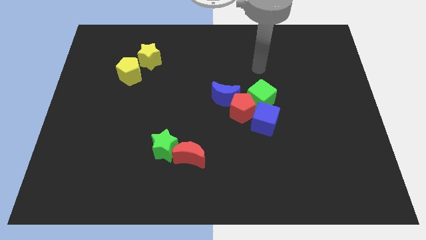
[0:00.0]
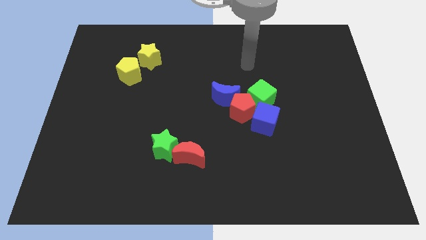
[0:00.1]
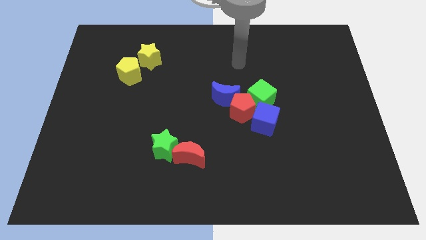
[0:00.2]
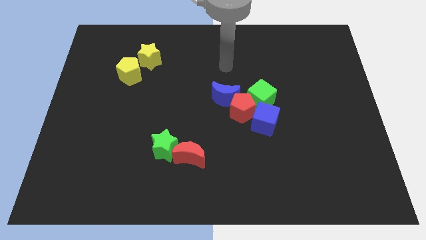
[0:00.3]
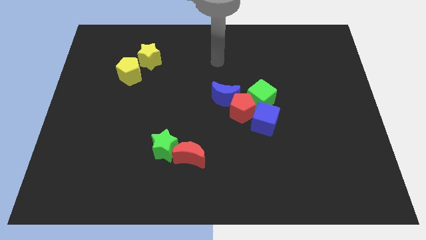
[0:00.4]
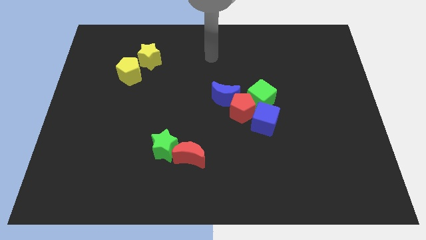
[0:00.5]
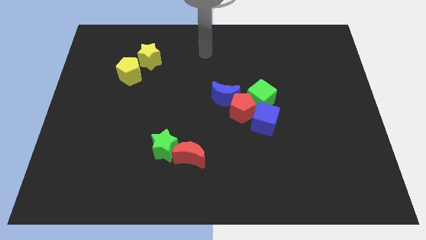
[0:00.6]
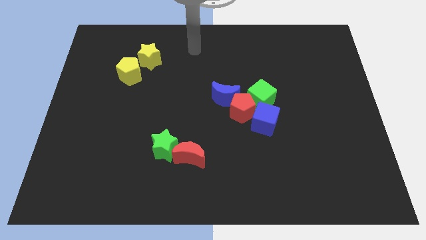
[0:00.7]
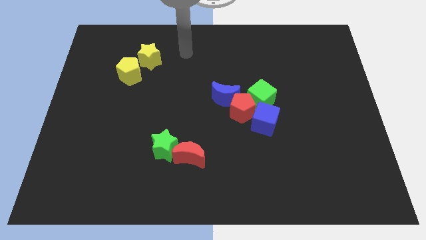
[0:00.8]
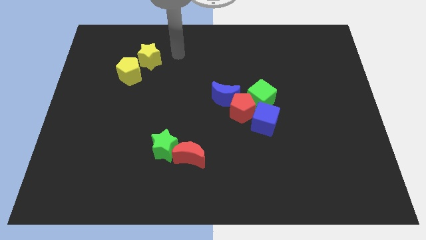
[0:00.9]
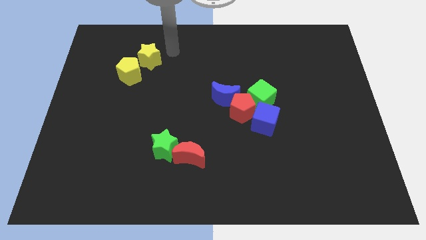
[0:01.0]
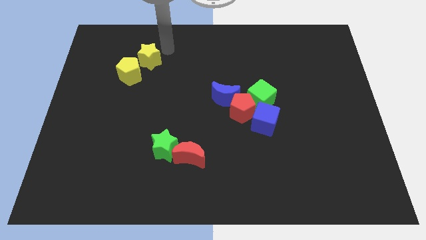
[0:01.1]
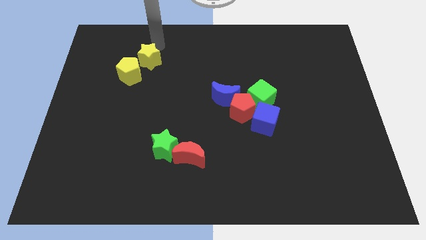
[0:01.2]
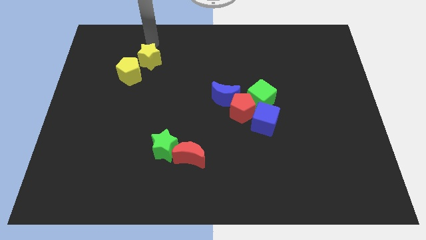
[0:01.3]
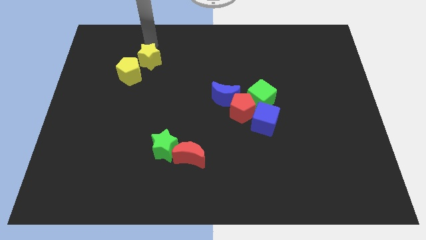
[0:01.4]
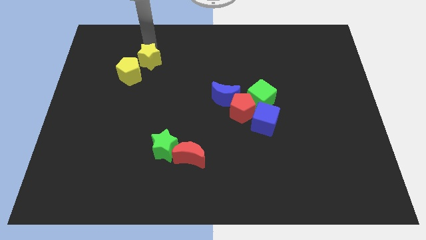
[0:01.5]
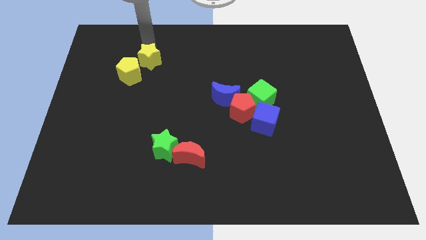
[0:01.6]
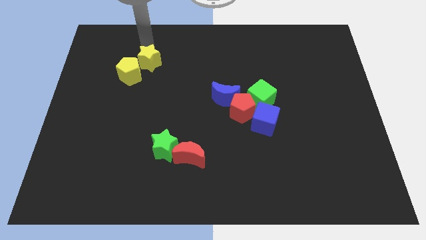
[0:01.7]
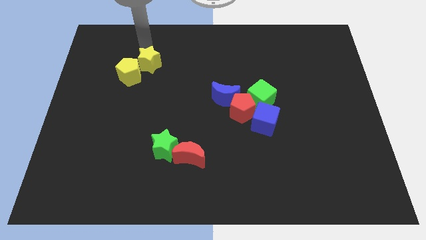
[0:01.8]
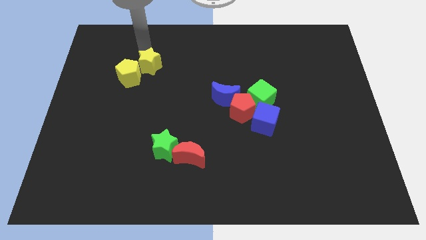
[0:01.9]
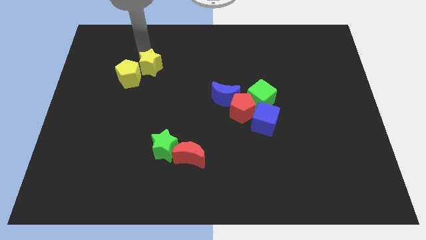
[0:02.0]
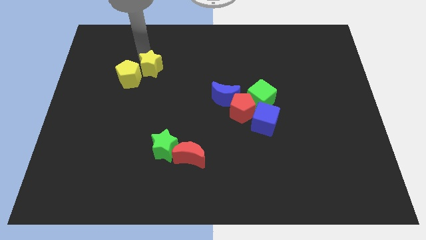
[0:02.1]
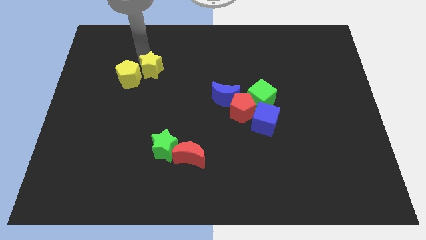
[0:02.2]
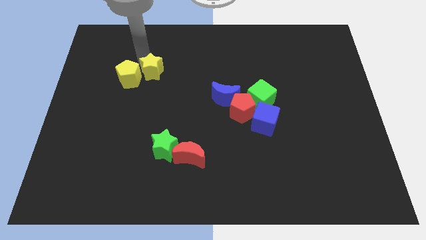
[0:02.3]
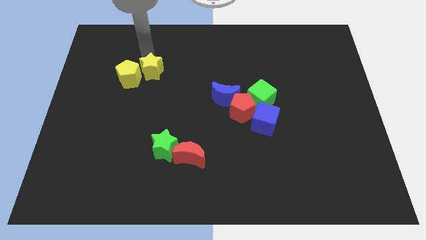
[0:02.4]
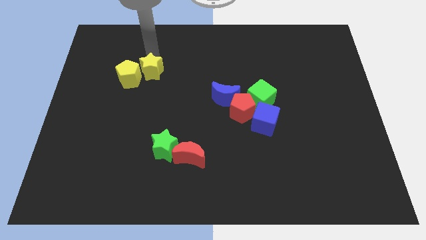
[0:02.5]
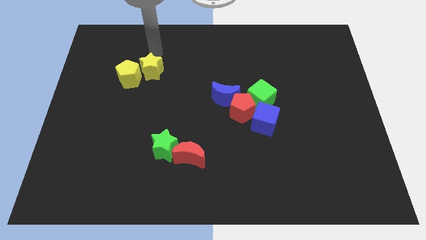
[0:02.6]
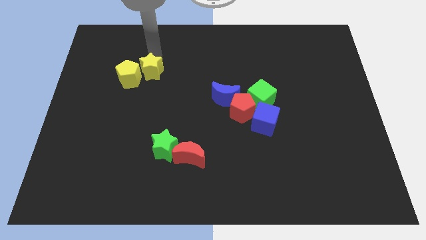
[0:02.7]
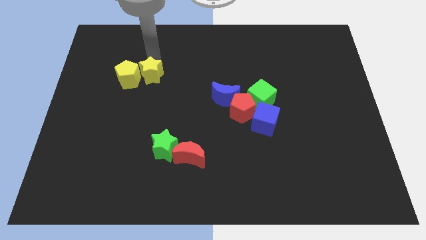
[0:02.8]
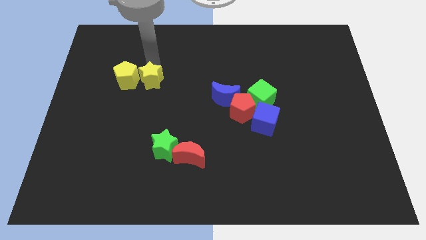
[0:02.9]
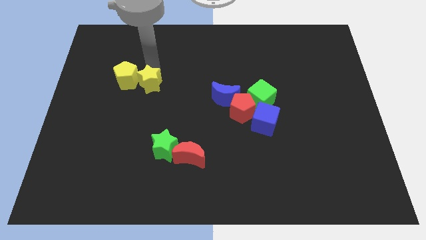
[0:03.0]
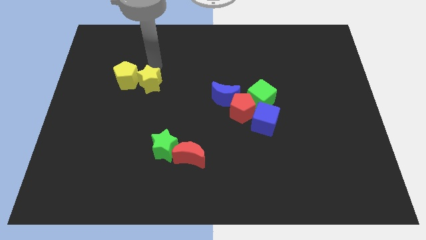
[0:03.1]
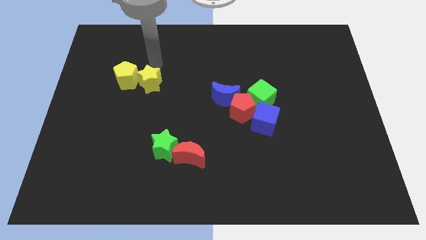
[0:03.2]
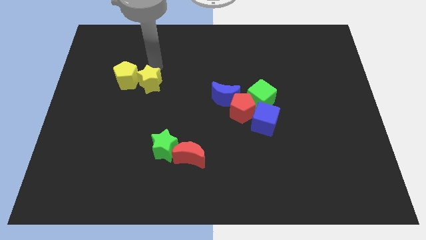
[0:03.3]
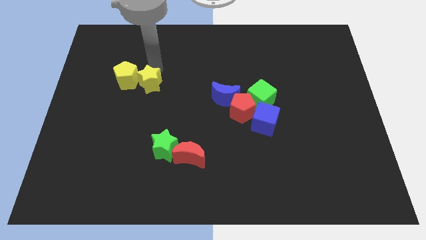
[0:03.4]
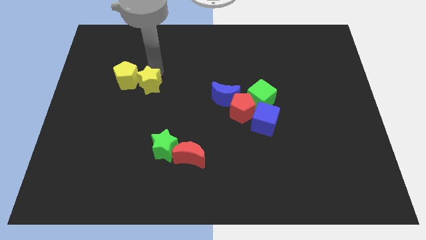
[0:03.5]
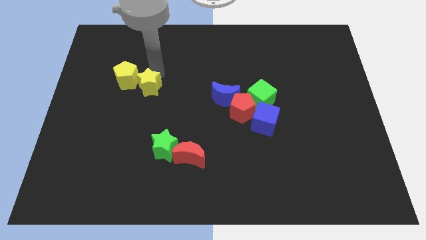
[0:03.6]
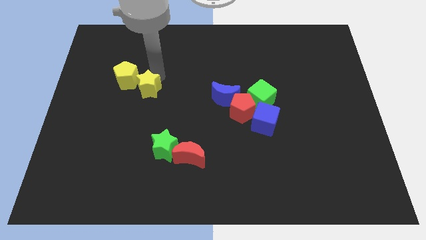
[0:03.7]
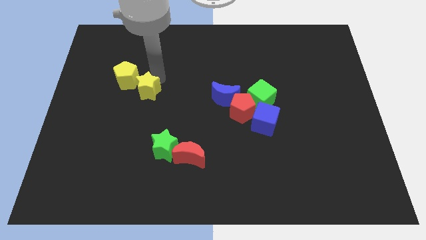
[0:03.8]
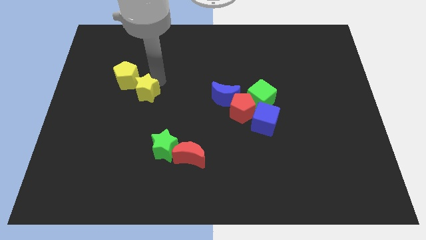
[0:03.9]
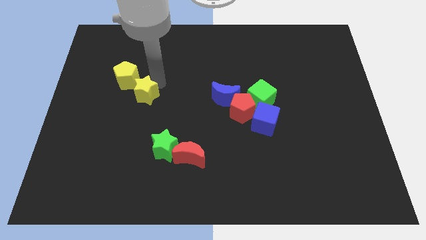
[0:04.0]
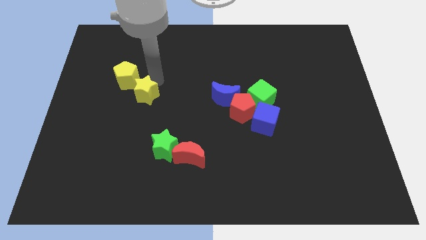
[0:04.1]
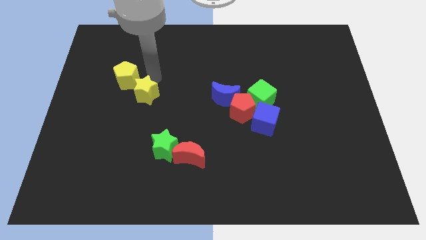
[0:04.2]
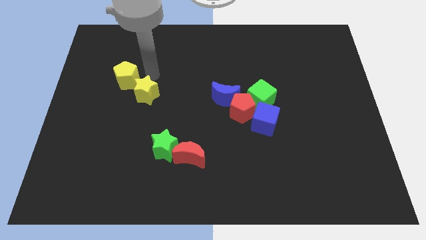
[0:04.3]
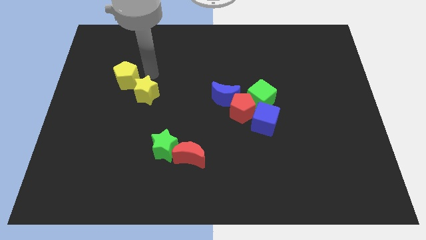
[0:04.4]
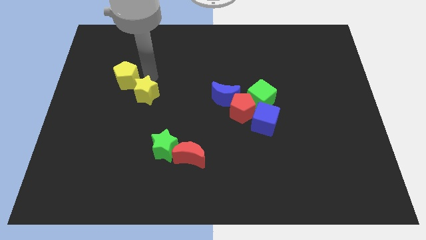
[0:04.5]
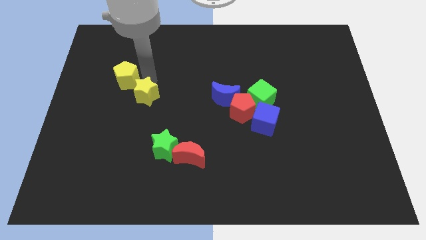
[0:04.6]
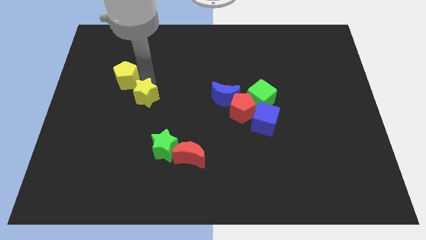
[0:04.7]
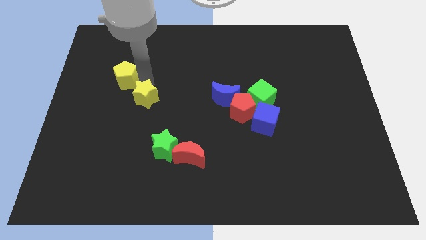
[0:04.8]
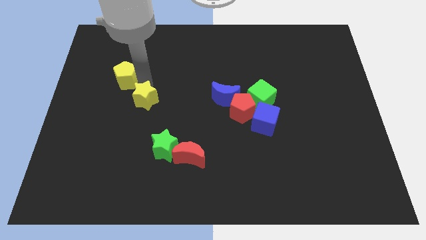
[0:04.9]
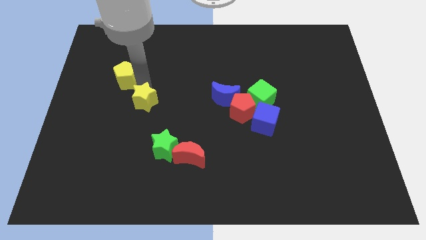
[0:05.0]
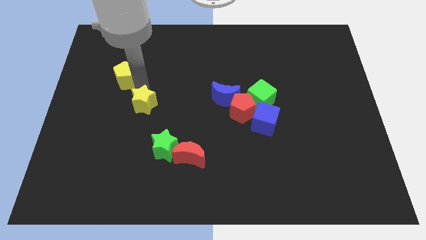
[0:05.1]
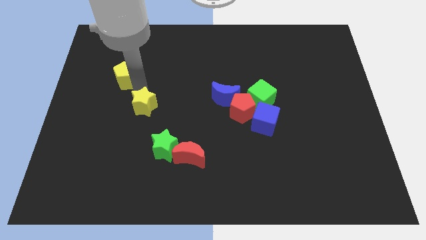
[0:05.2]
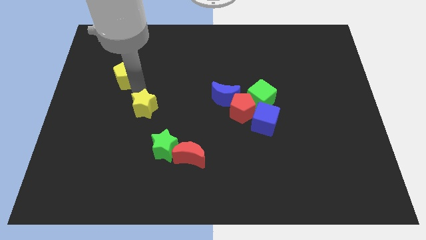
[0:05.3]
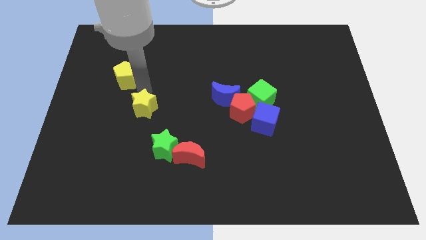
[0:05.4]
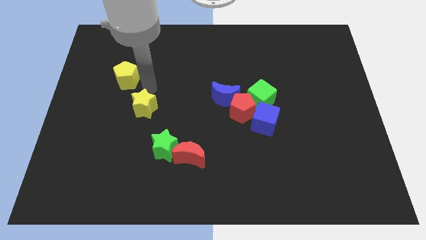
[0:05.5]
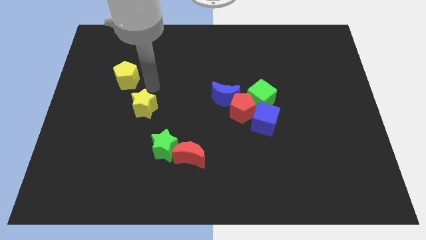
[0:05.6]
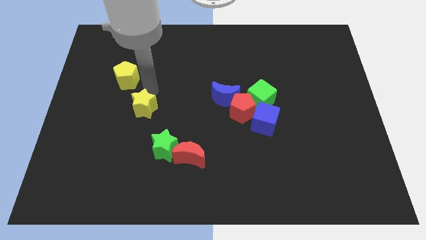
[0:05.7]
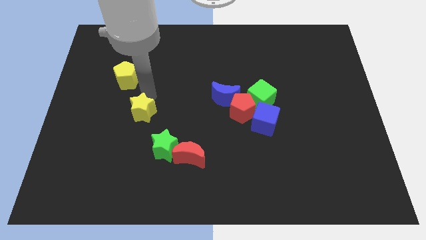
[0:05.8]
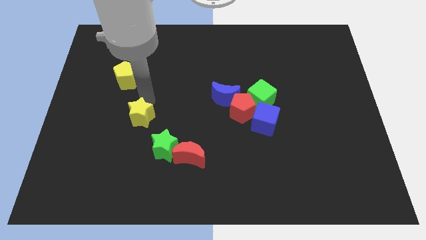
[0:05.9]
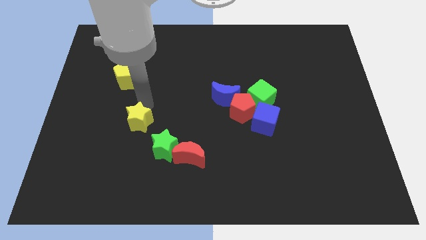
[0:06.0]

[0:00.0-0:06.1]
slide the yellow star down

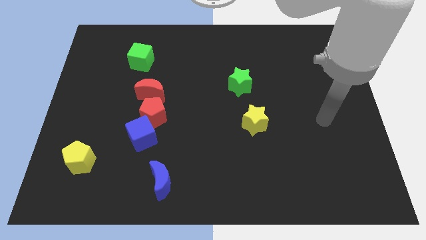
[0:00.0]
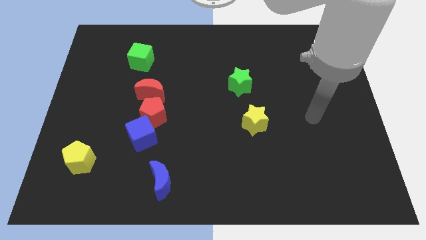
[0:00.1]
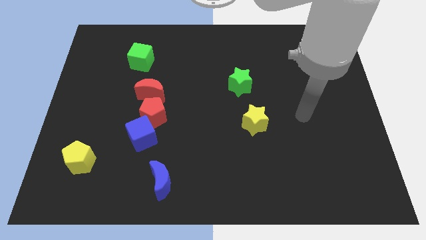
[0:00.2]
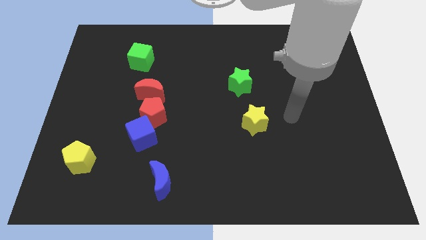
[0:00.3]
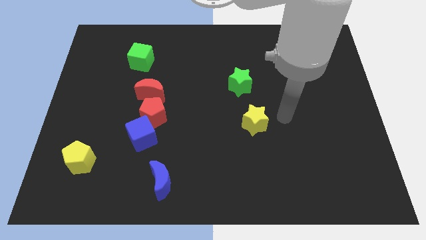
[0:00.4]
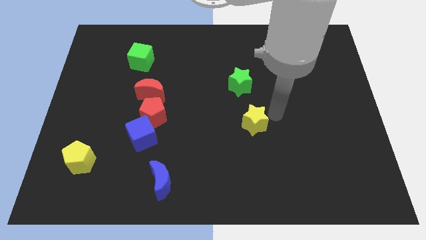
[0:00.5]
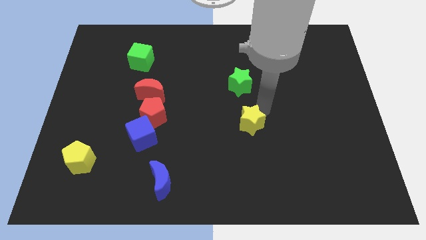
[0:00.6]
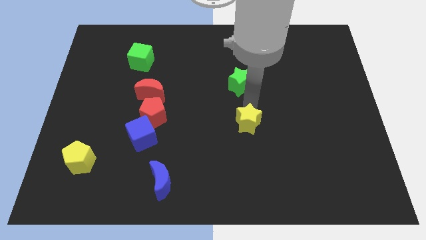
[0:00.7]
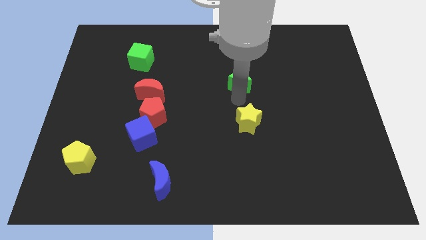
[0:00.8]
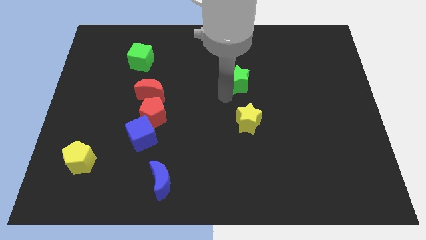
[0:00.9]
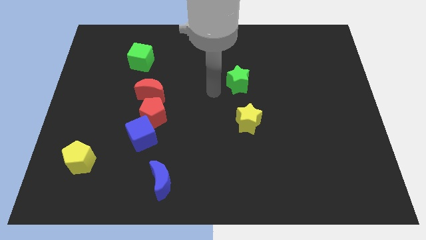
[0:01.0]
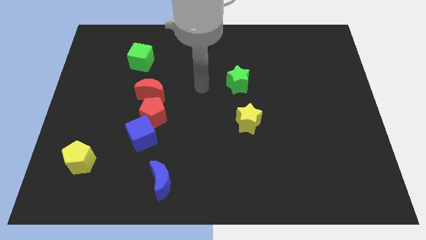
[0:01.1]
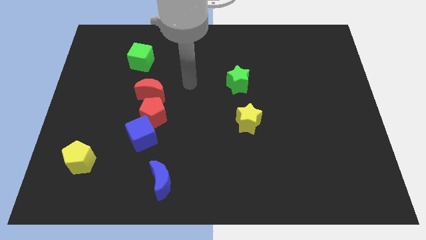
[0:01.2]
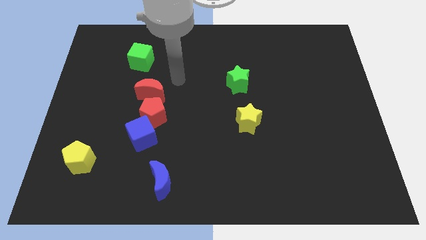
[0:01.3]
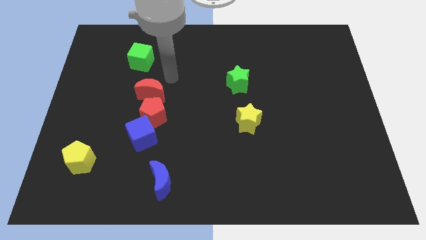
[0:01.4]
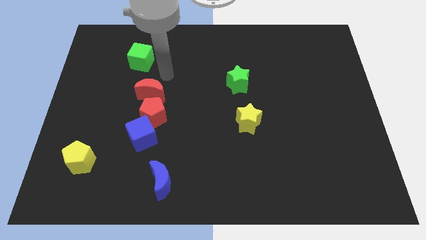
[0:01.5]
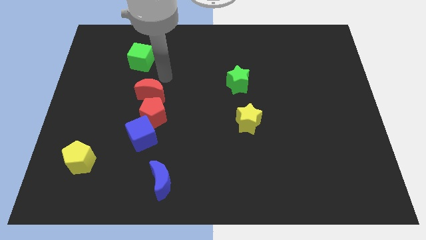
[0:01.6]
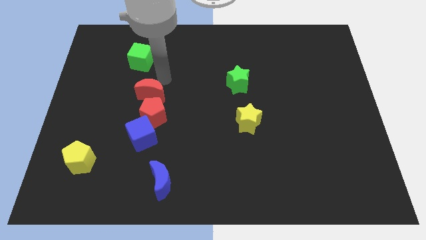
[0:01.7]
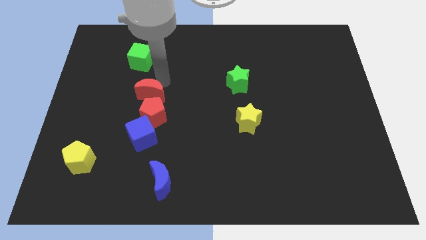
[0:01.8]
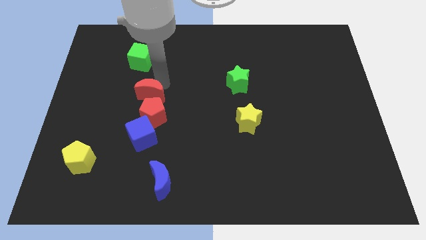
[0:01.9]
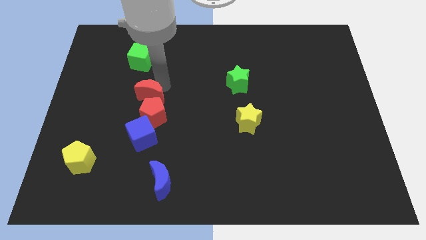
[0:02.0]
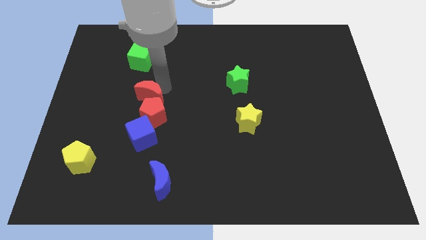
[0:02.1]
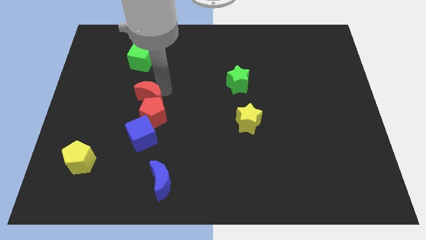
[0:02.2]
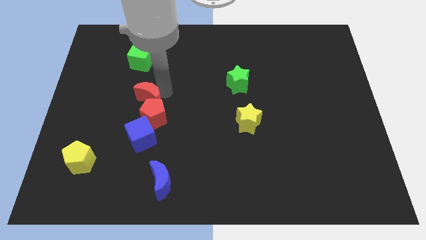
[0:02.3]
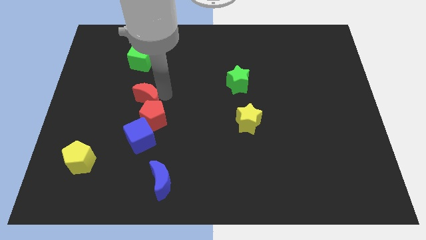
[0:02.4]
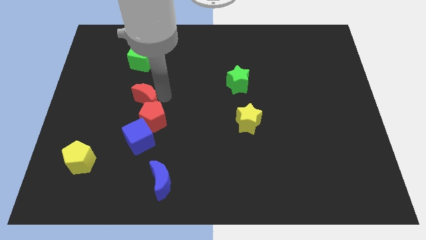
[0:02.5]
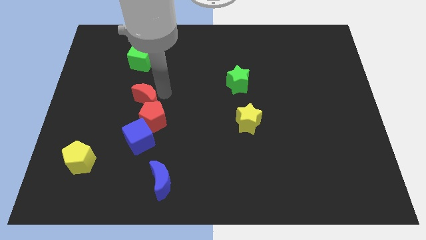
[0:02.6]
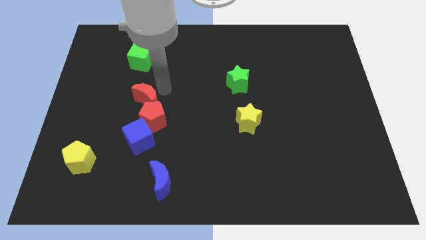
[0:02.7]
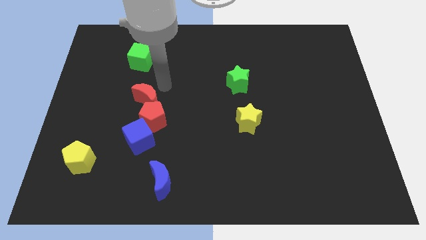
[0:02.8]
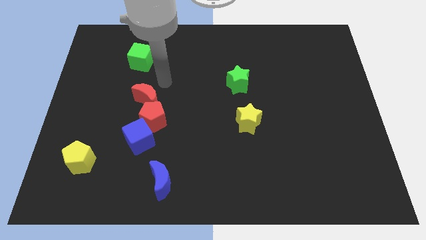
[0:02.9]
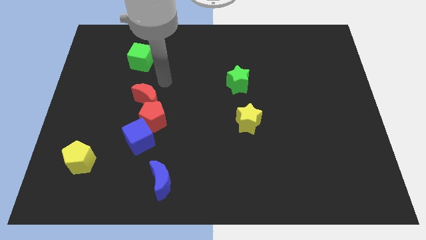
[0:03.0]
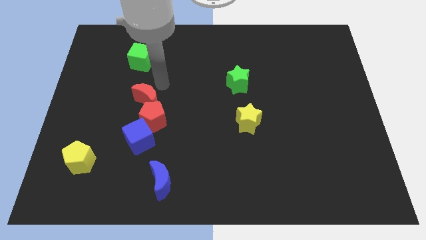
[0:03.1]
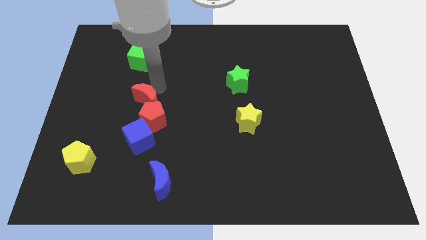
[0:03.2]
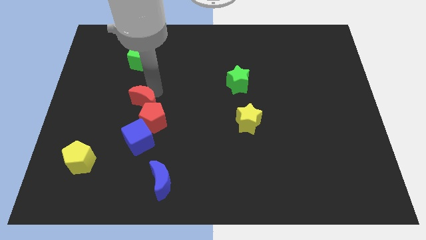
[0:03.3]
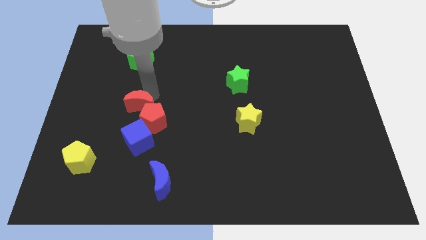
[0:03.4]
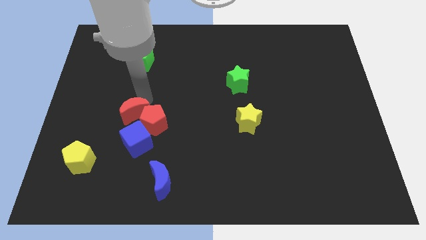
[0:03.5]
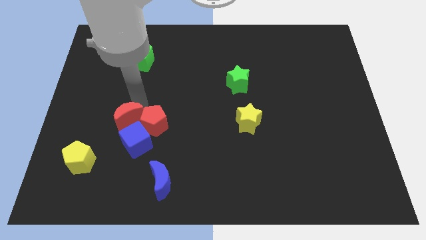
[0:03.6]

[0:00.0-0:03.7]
slide the red moon downwards slightly
